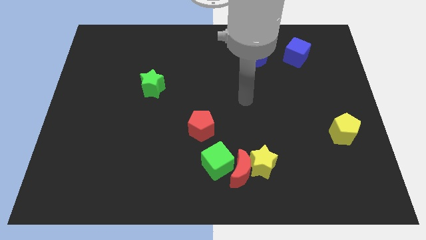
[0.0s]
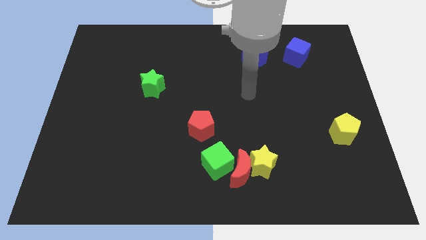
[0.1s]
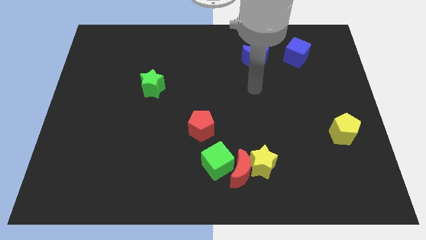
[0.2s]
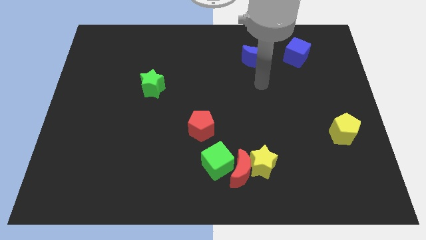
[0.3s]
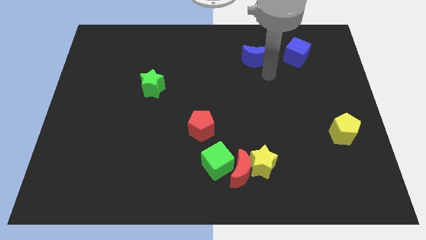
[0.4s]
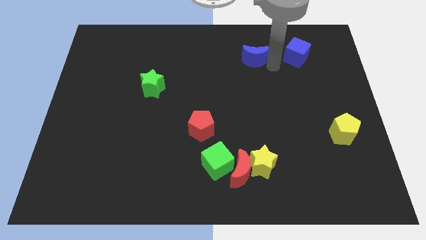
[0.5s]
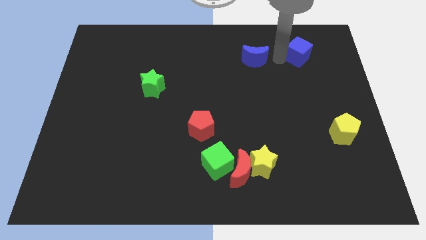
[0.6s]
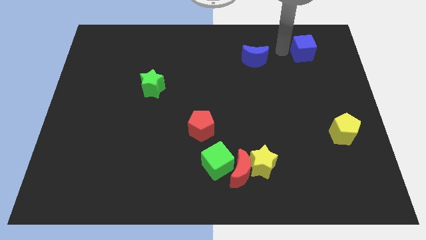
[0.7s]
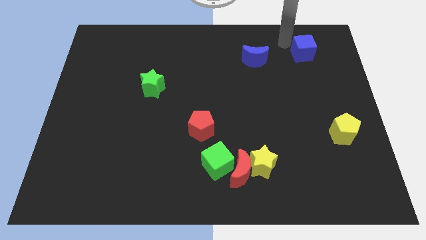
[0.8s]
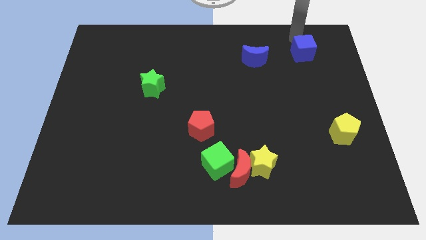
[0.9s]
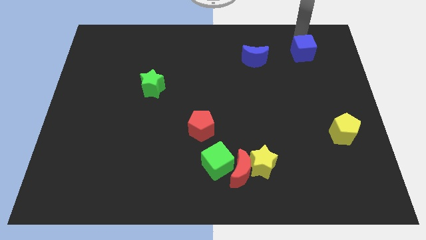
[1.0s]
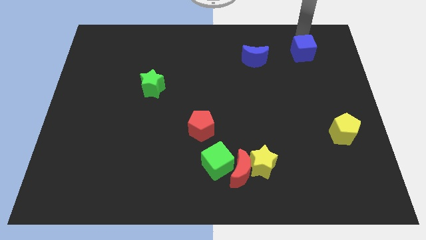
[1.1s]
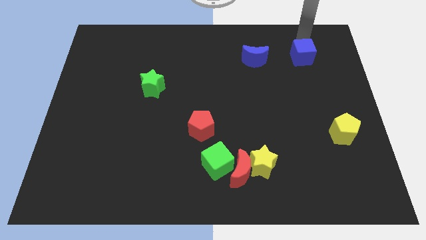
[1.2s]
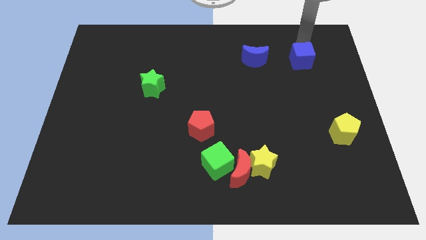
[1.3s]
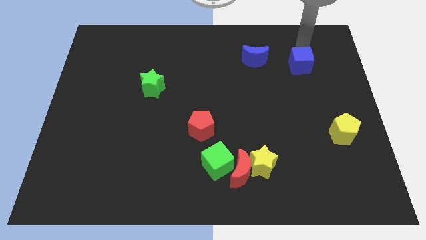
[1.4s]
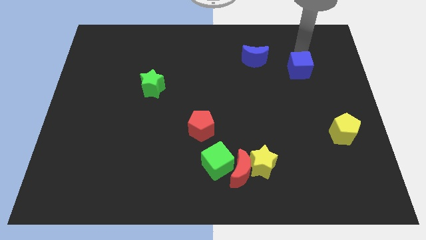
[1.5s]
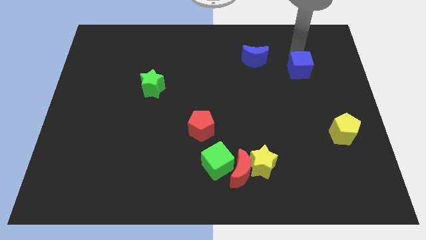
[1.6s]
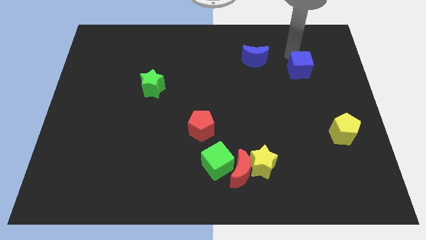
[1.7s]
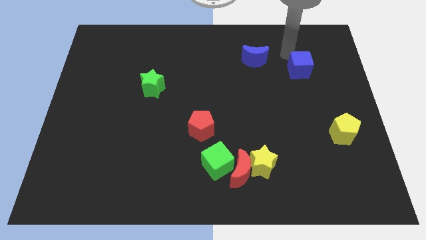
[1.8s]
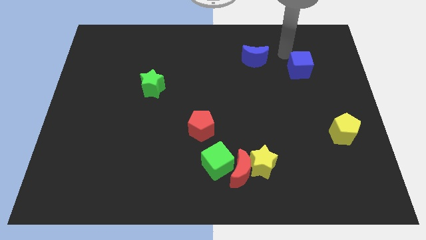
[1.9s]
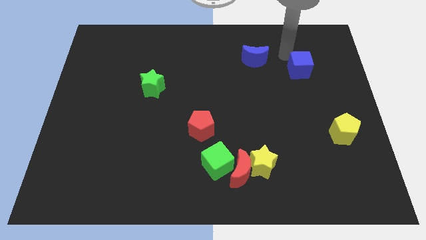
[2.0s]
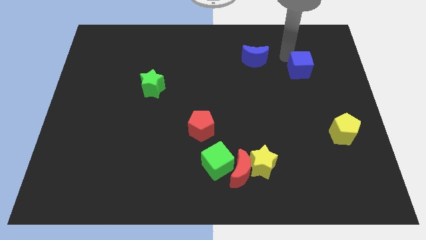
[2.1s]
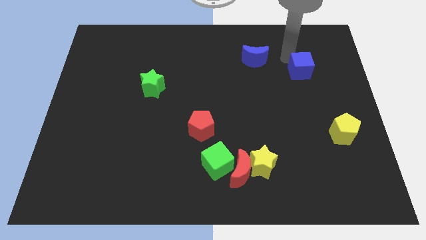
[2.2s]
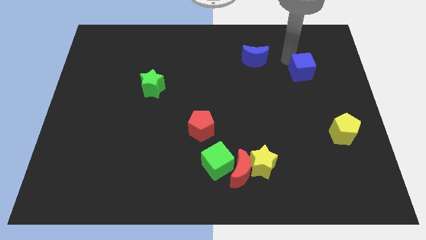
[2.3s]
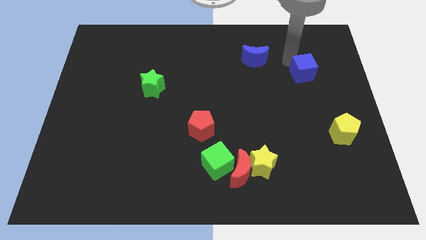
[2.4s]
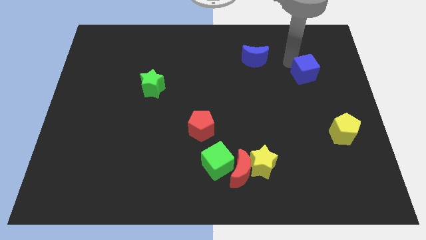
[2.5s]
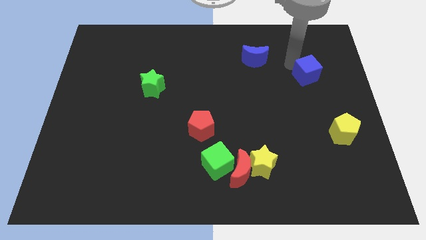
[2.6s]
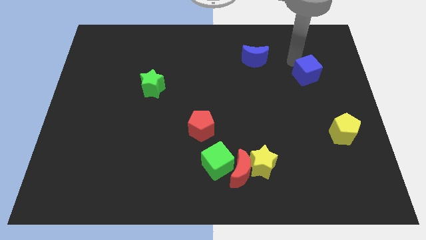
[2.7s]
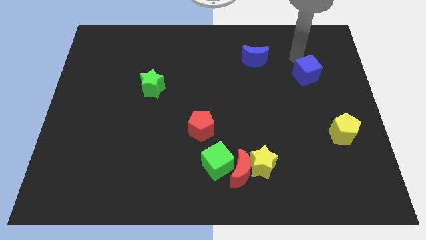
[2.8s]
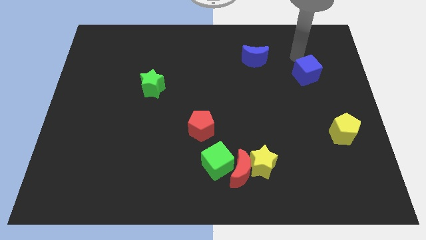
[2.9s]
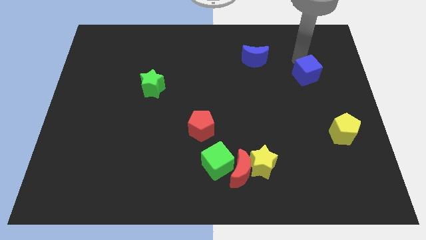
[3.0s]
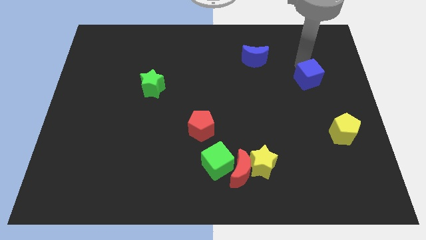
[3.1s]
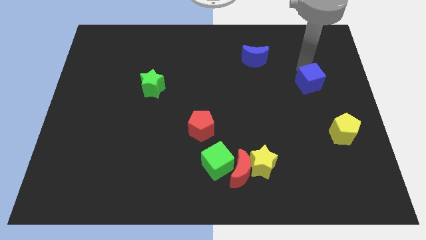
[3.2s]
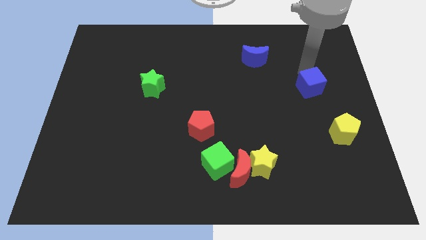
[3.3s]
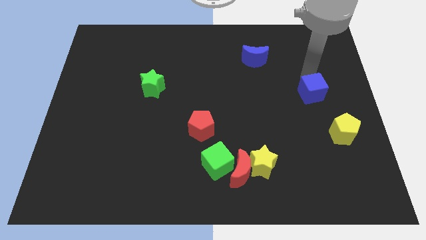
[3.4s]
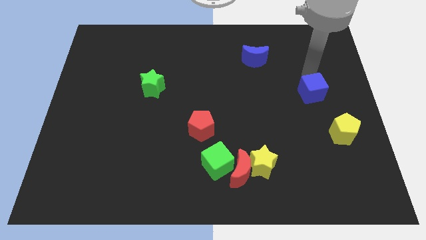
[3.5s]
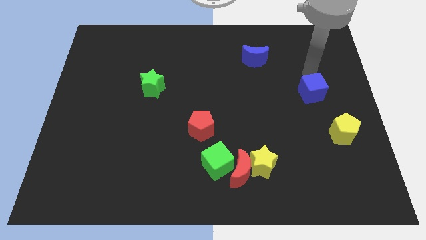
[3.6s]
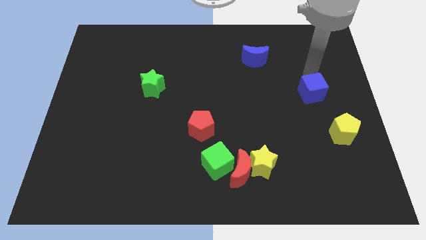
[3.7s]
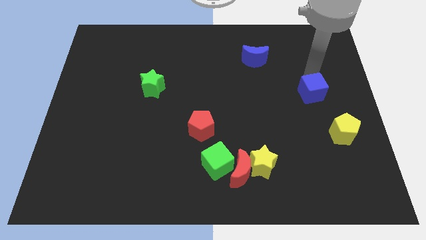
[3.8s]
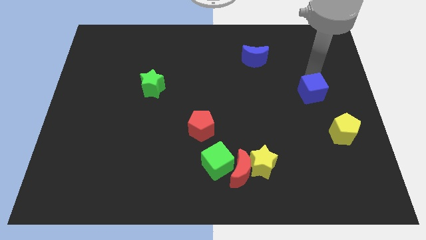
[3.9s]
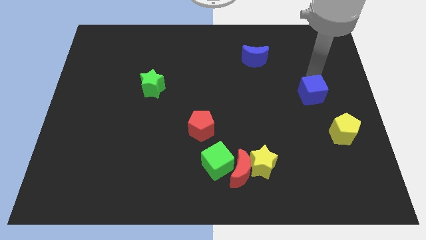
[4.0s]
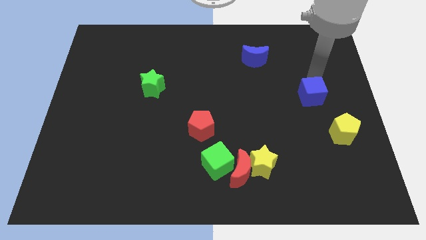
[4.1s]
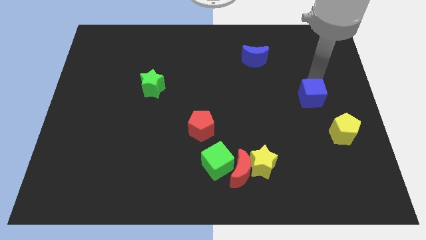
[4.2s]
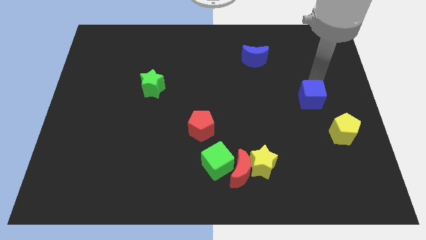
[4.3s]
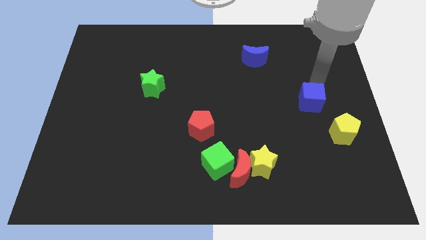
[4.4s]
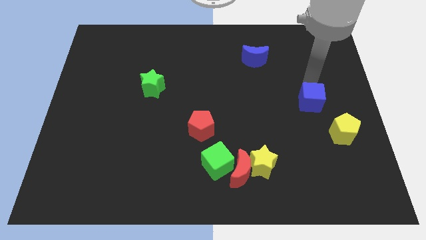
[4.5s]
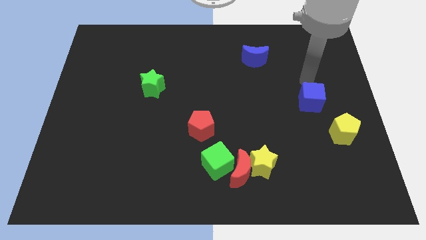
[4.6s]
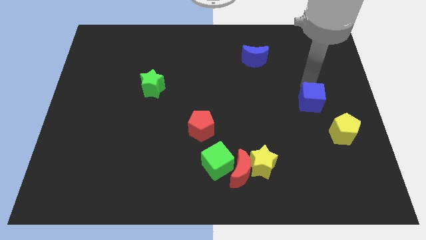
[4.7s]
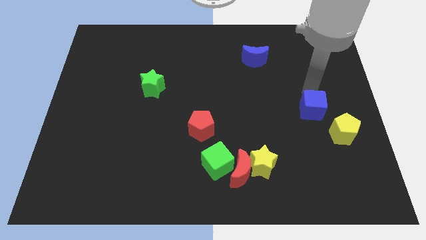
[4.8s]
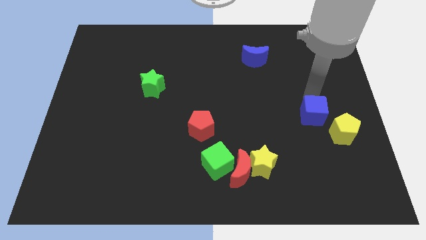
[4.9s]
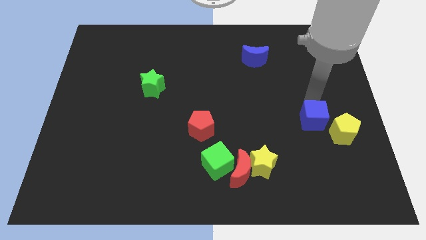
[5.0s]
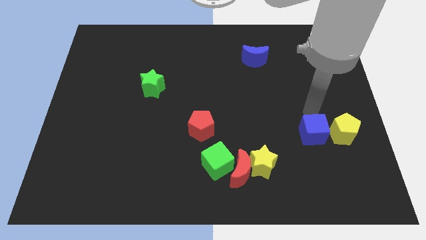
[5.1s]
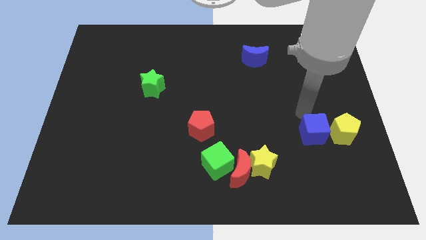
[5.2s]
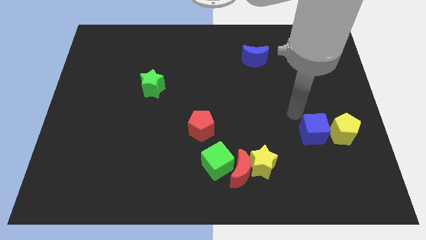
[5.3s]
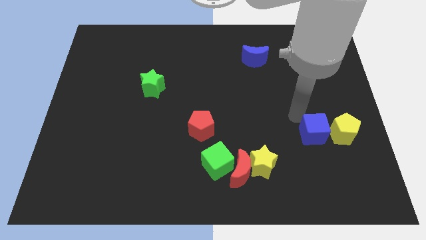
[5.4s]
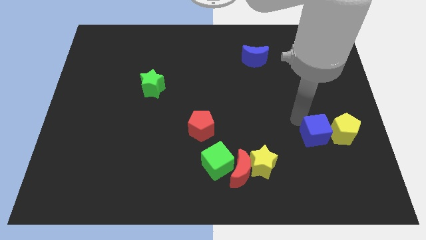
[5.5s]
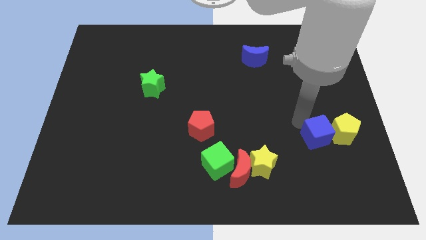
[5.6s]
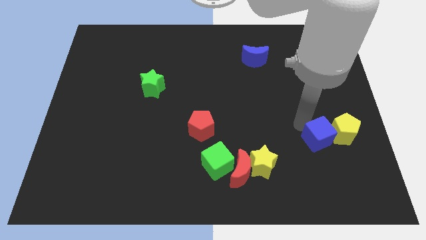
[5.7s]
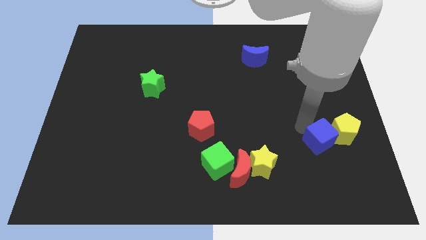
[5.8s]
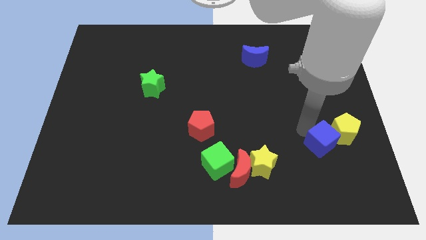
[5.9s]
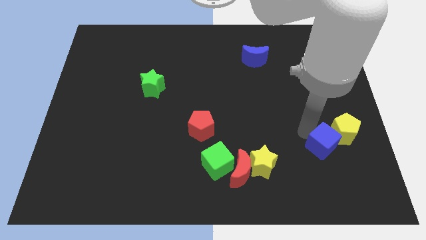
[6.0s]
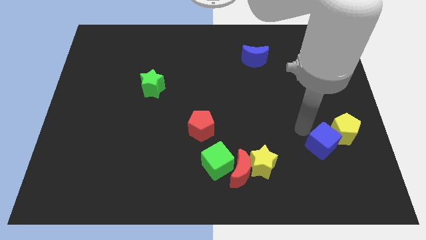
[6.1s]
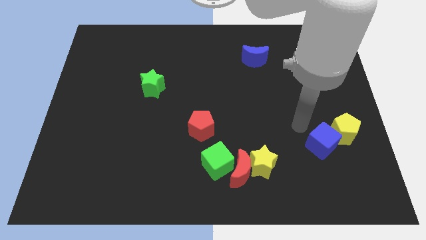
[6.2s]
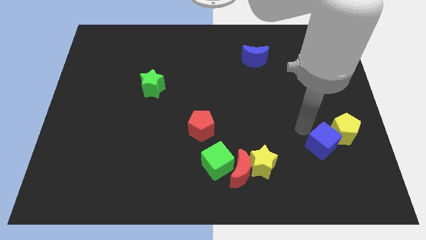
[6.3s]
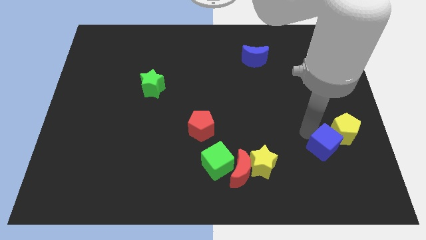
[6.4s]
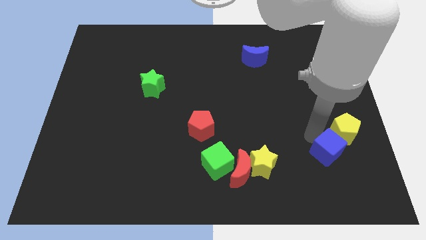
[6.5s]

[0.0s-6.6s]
push the blue cube to the bottom side of the yellow pentagon

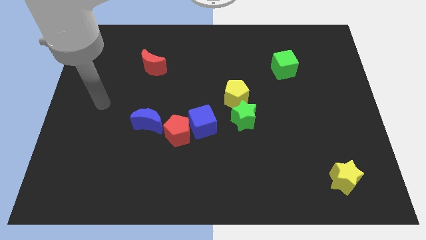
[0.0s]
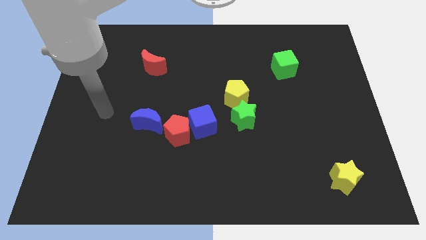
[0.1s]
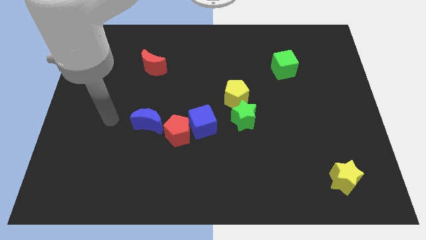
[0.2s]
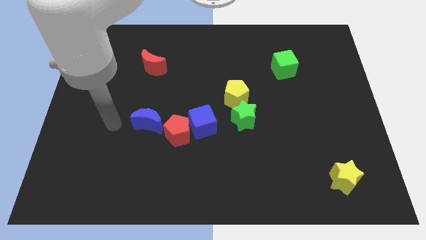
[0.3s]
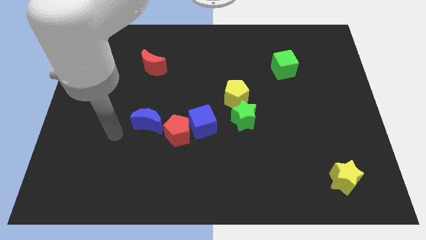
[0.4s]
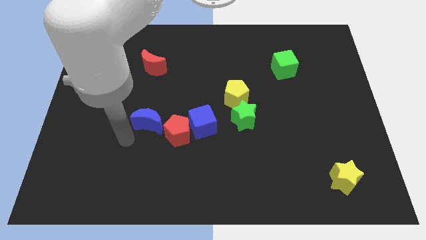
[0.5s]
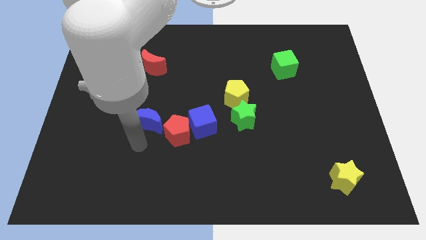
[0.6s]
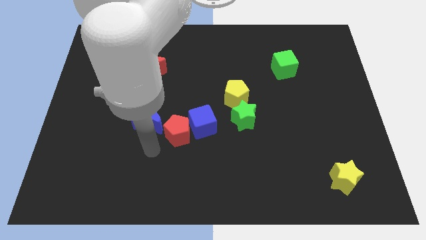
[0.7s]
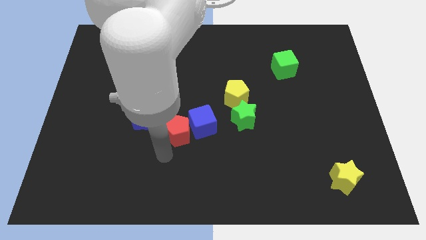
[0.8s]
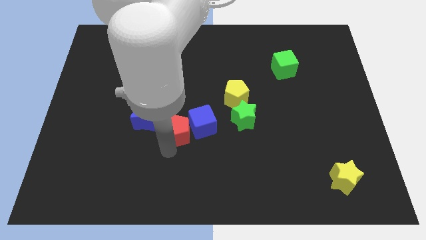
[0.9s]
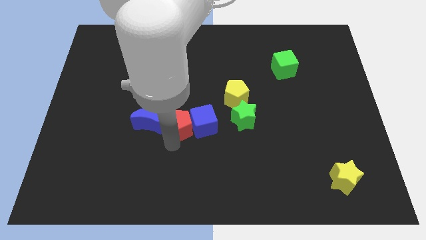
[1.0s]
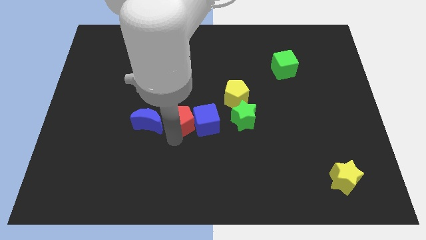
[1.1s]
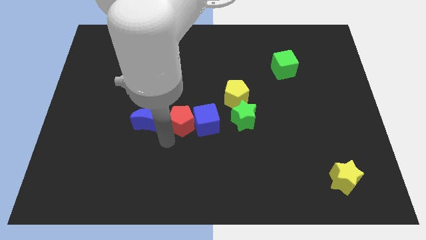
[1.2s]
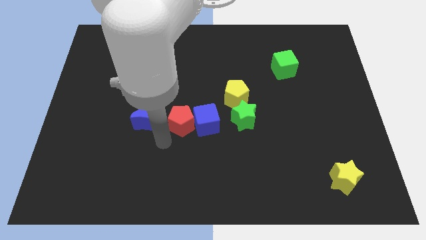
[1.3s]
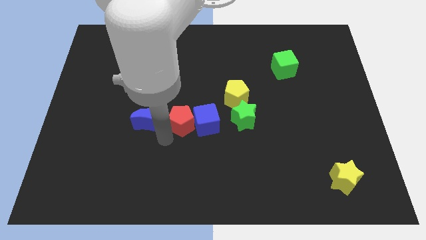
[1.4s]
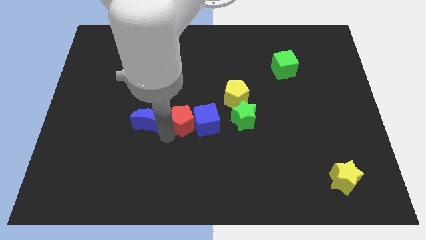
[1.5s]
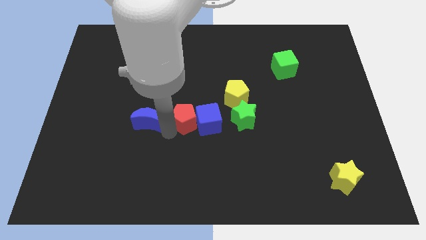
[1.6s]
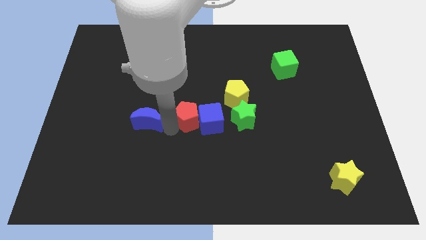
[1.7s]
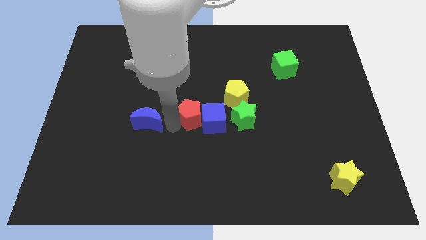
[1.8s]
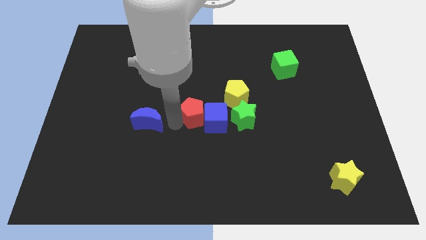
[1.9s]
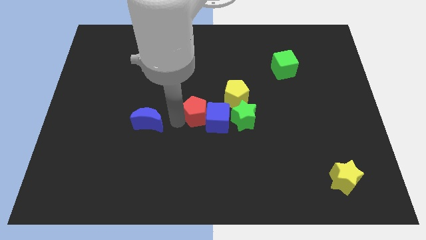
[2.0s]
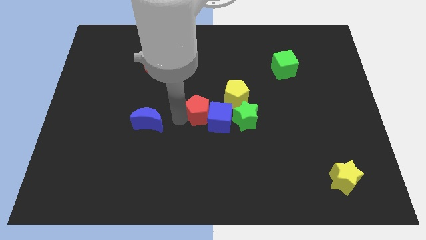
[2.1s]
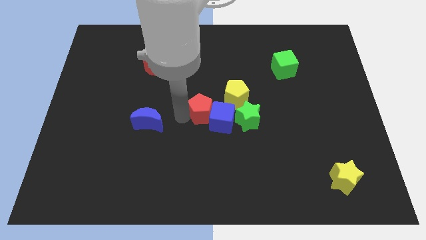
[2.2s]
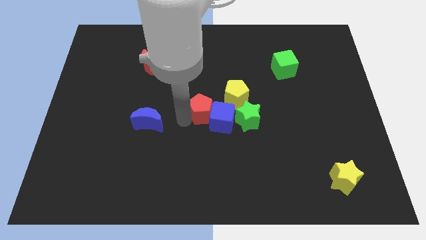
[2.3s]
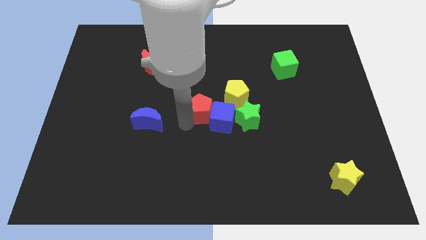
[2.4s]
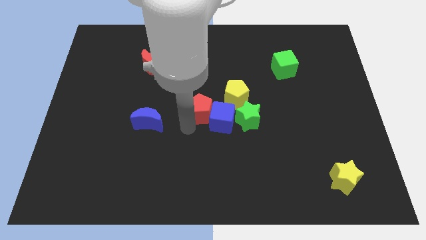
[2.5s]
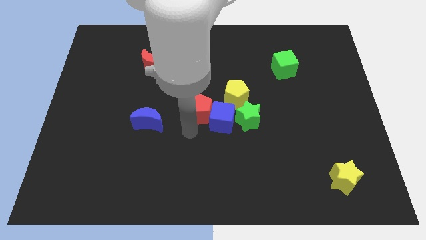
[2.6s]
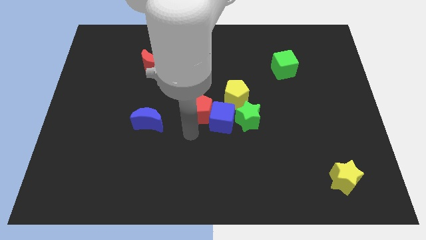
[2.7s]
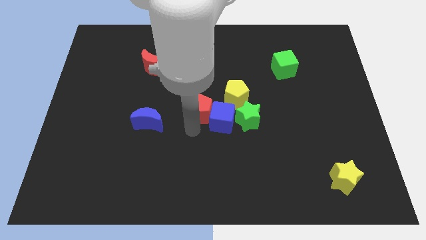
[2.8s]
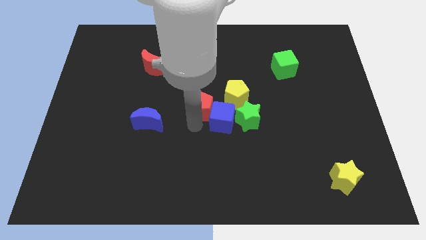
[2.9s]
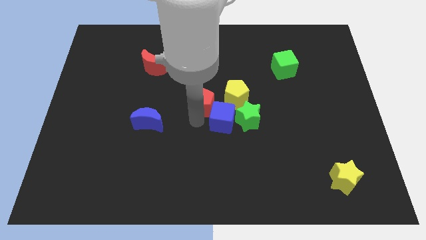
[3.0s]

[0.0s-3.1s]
slide the red pentagon to the top left side of the green star
